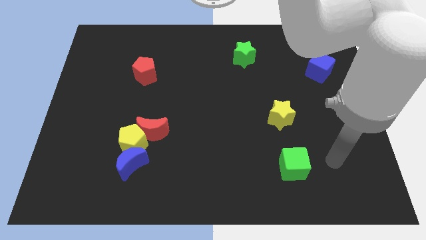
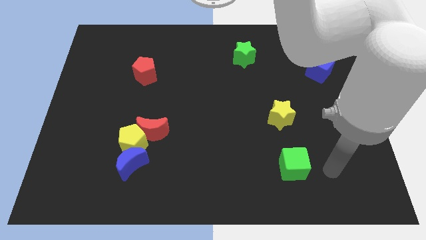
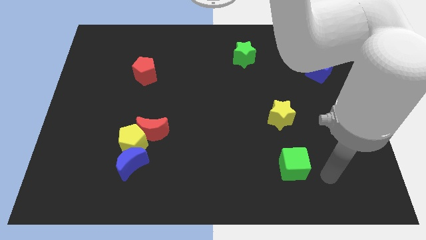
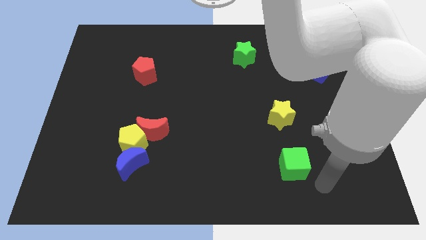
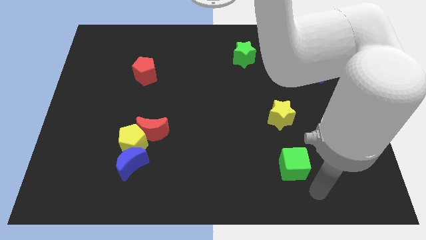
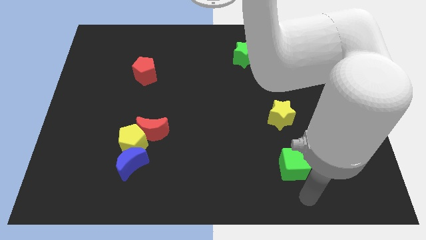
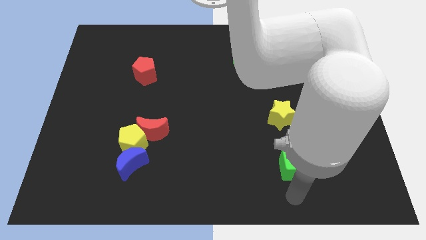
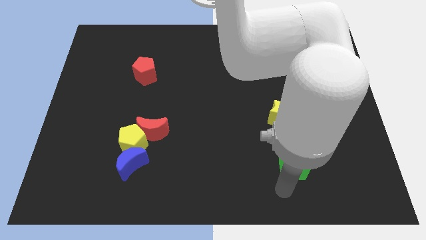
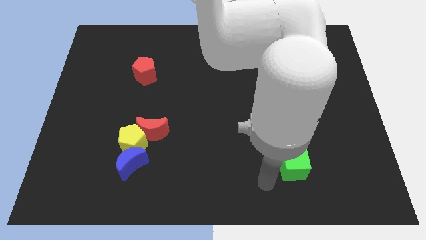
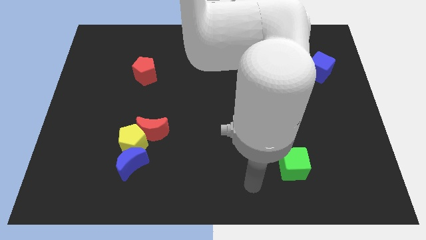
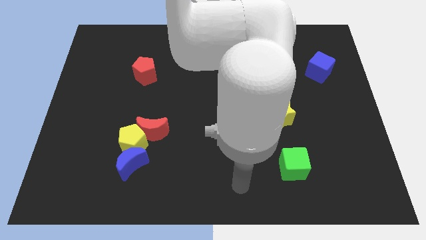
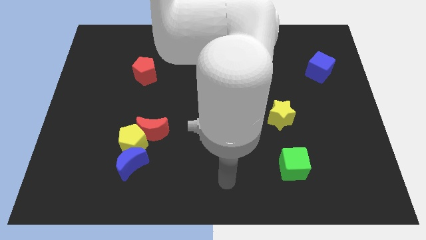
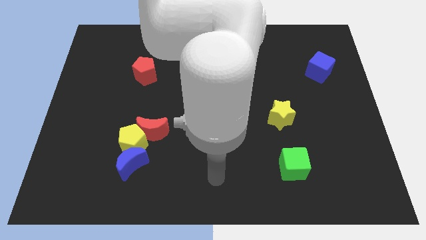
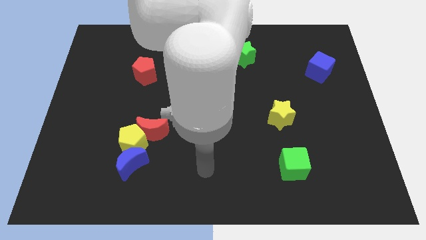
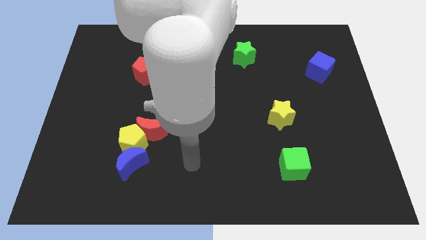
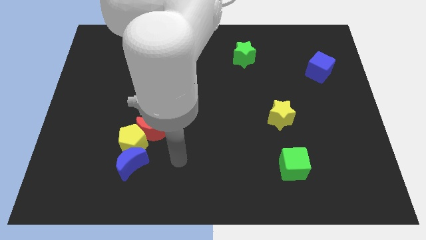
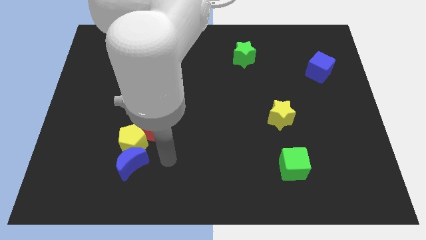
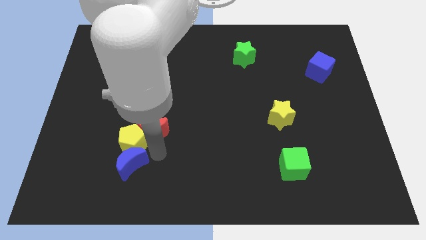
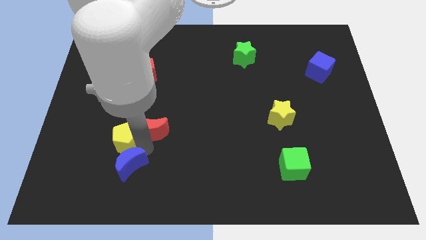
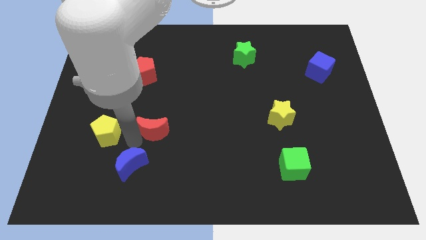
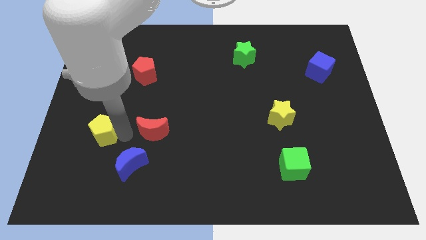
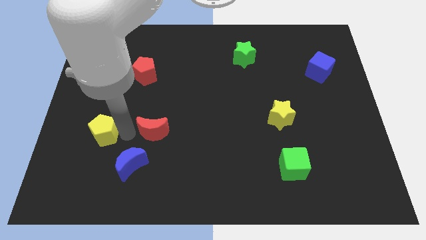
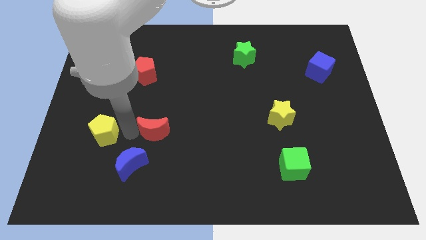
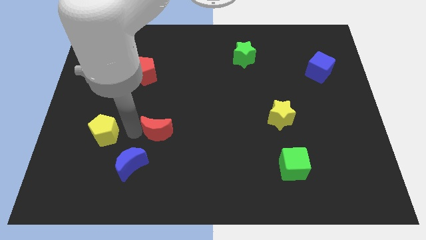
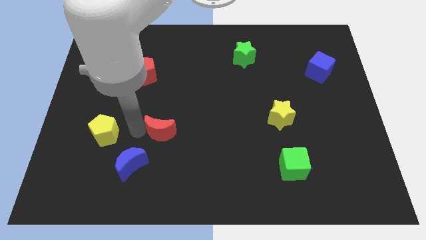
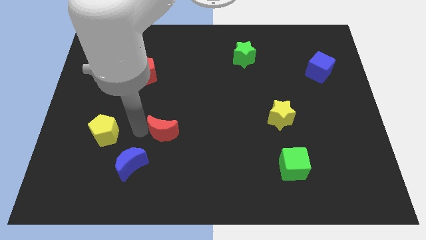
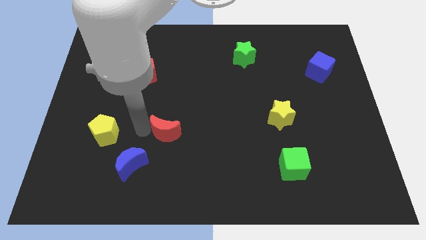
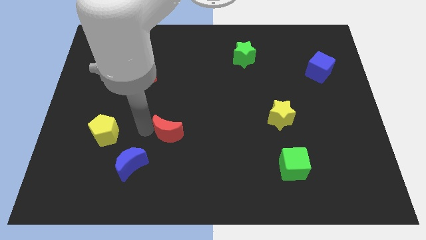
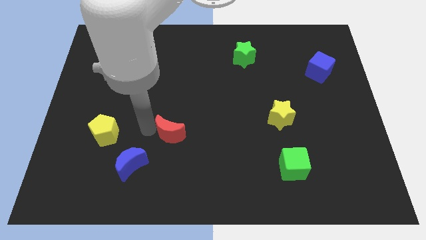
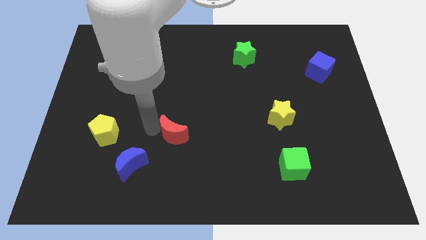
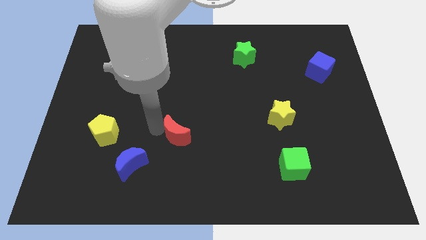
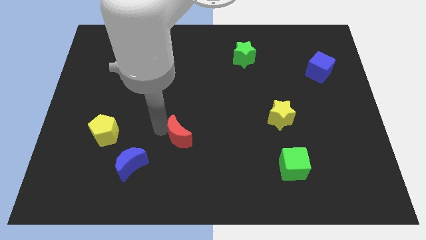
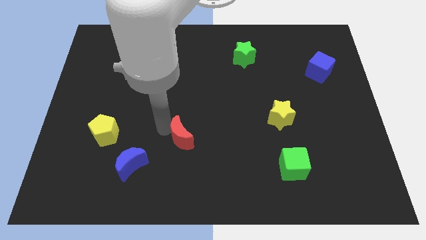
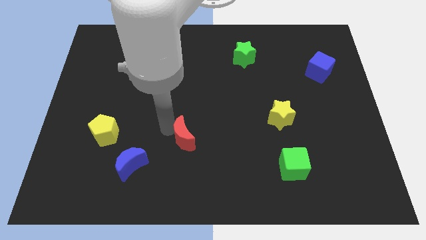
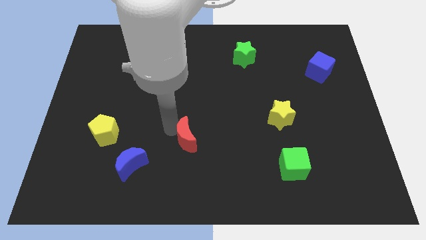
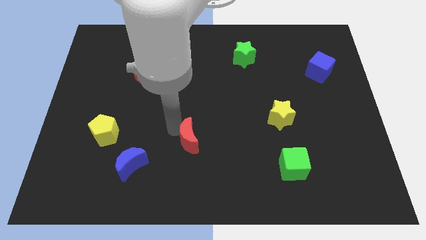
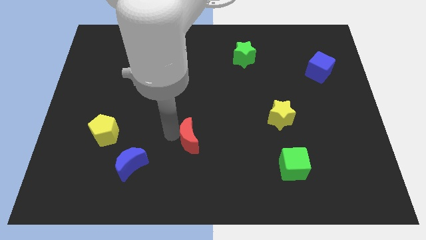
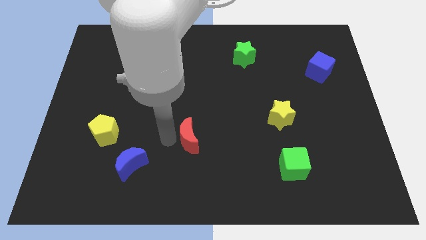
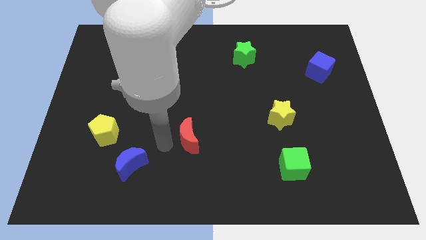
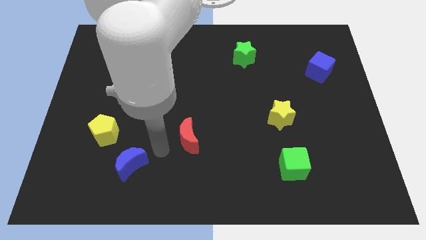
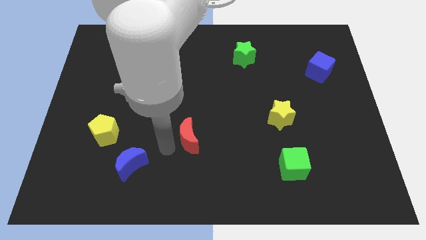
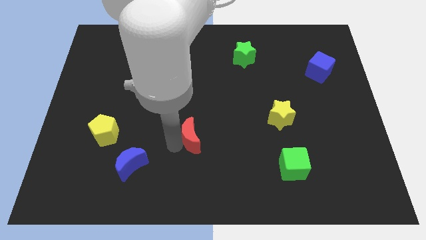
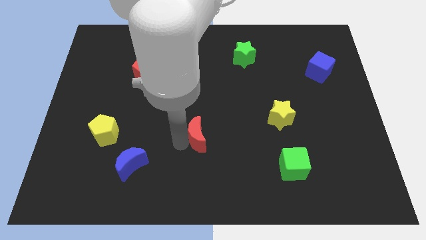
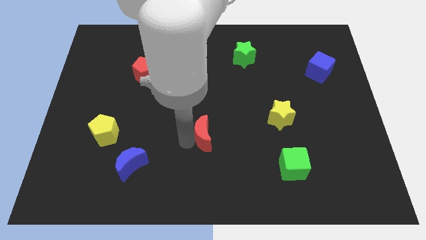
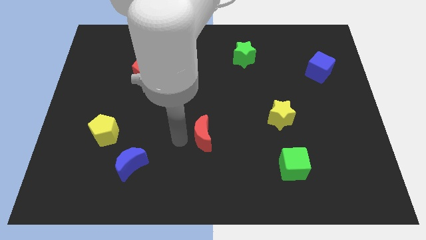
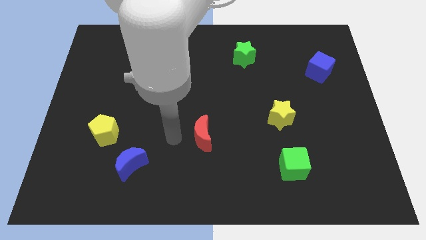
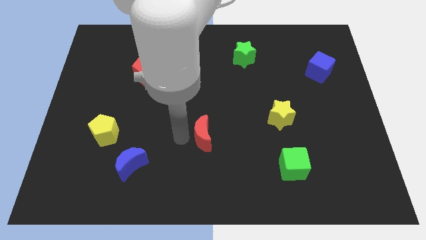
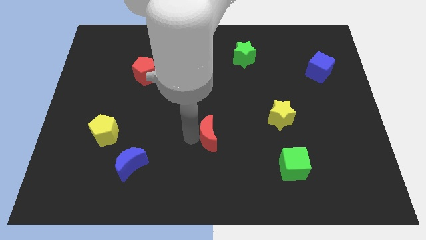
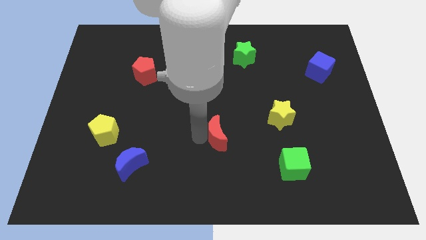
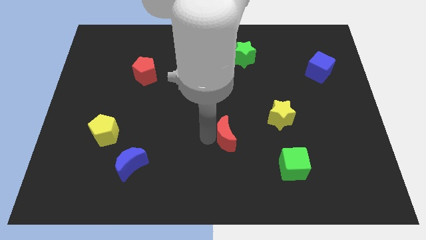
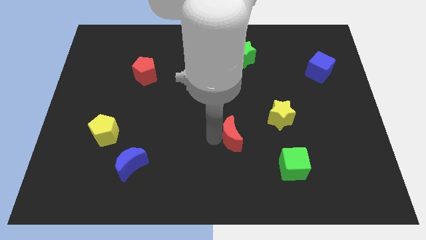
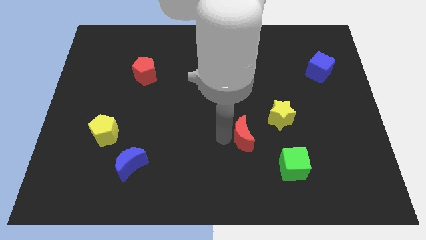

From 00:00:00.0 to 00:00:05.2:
move the red moon right

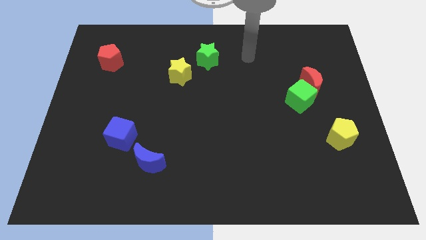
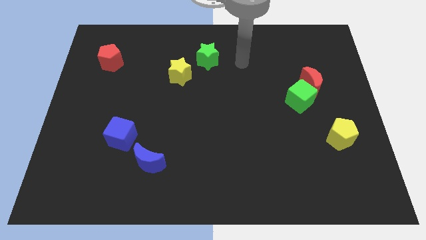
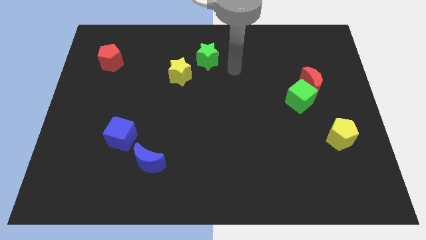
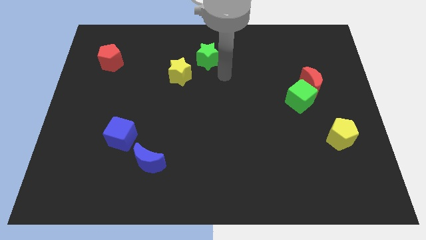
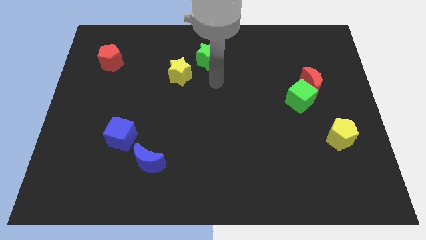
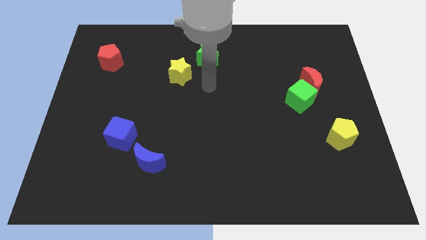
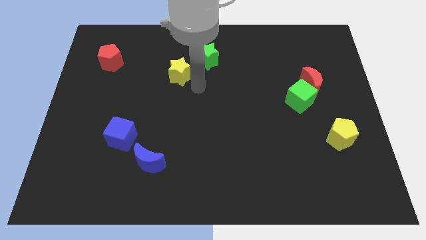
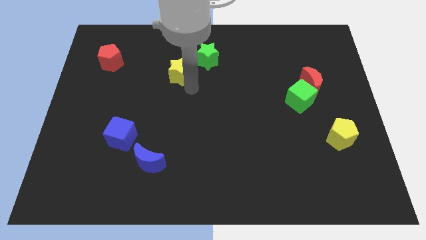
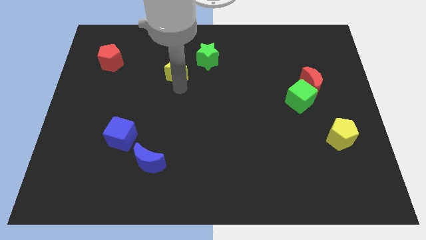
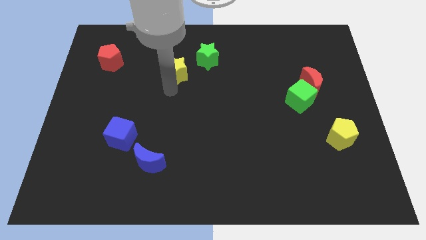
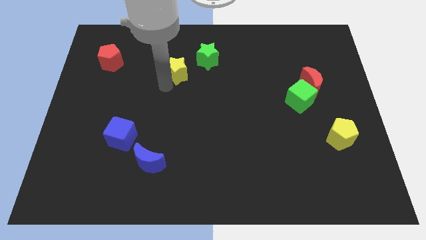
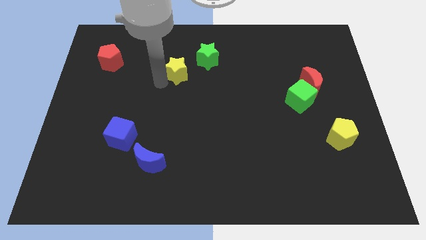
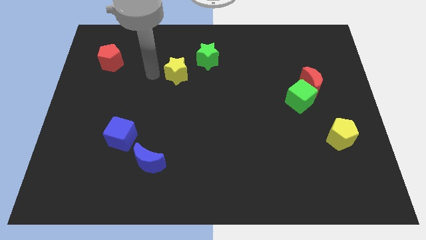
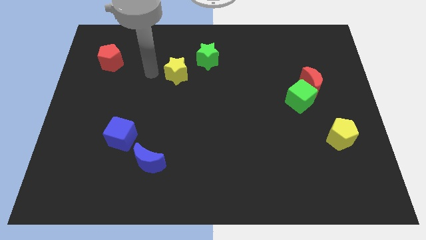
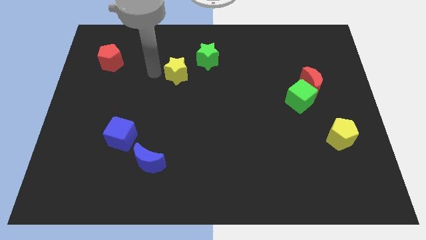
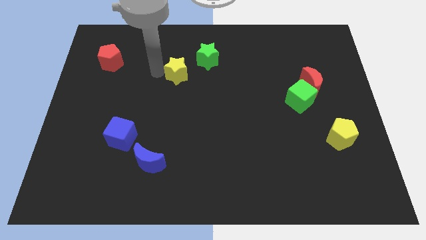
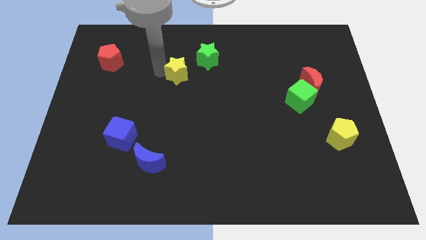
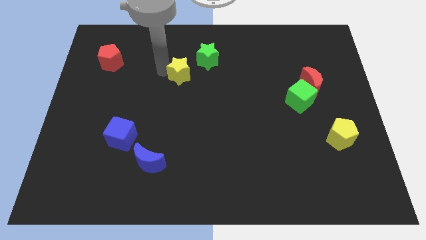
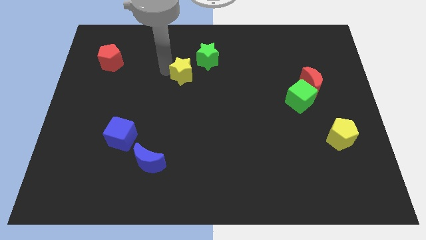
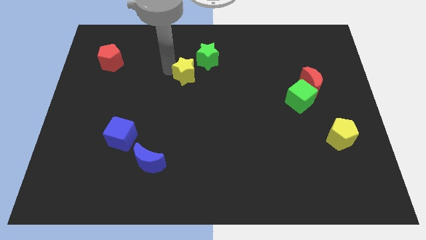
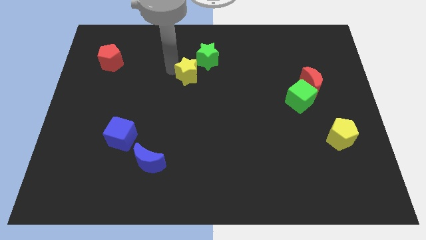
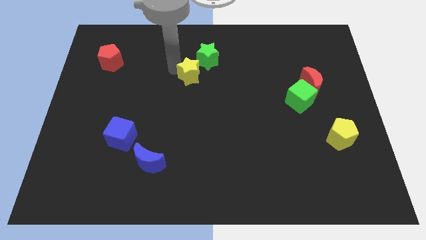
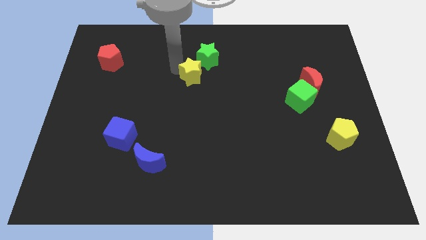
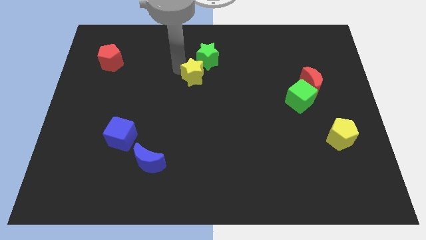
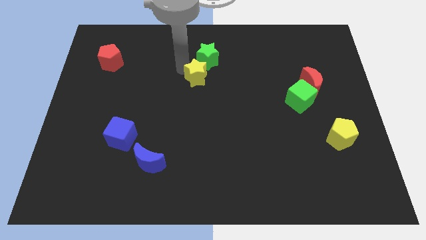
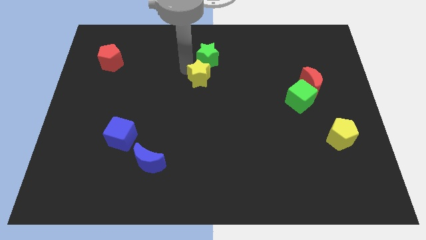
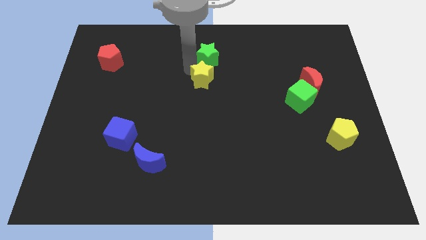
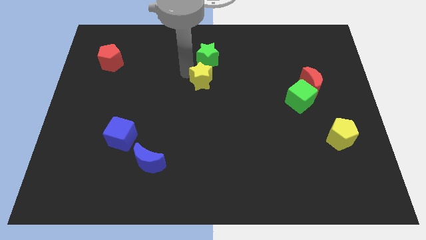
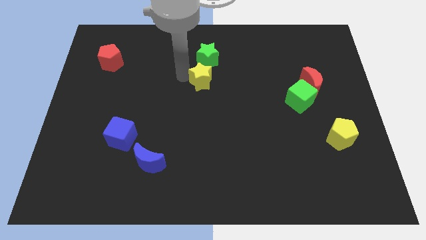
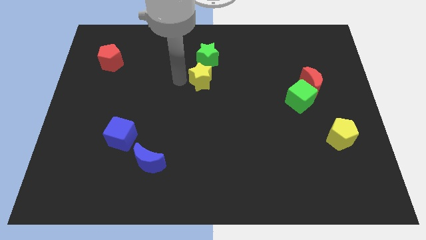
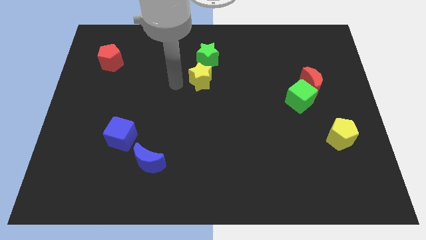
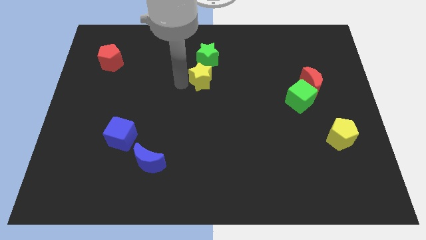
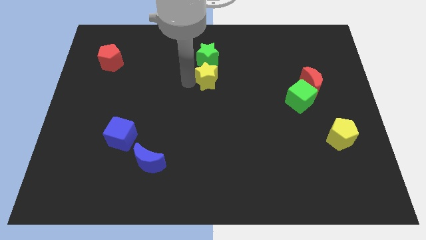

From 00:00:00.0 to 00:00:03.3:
slightly move the yellow star to the right
